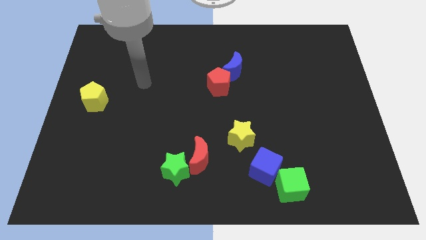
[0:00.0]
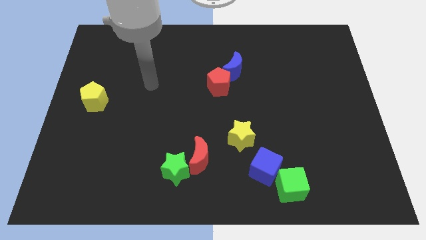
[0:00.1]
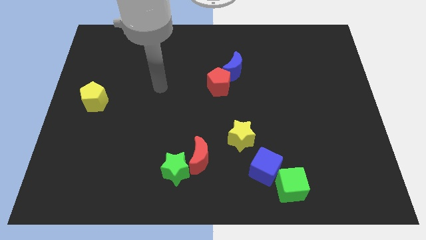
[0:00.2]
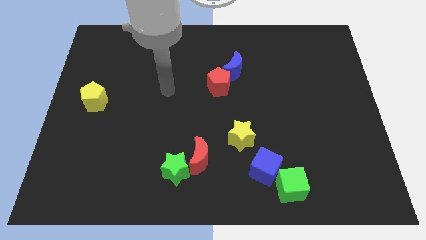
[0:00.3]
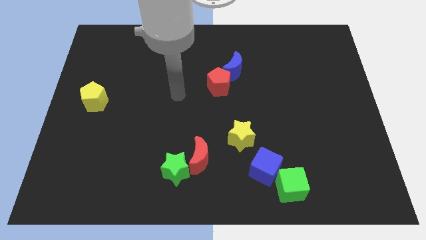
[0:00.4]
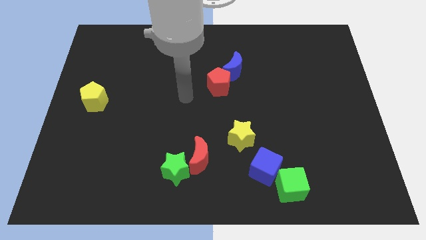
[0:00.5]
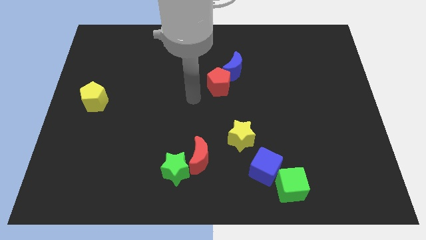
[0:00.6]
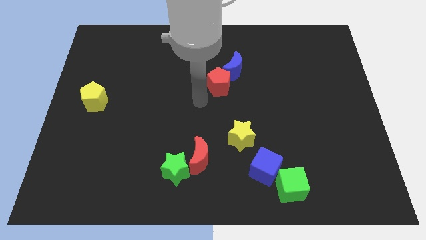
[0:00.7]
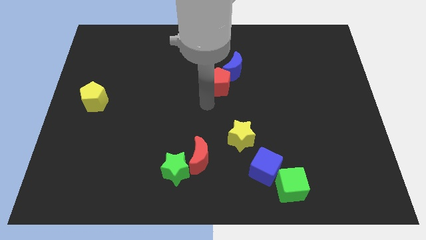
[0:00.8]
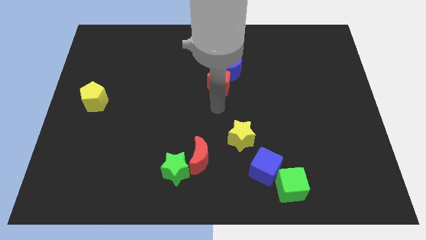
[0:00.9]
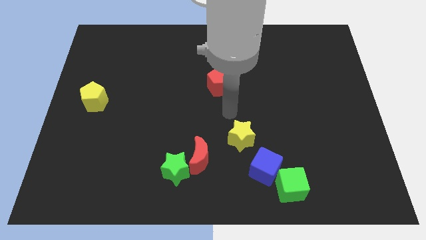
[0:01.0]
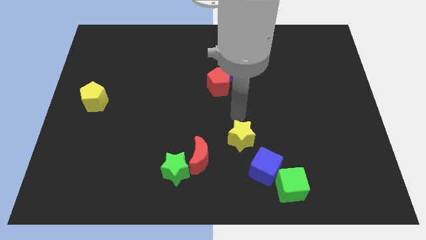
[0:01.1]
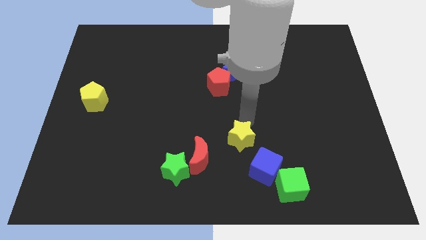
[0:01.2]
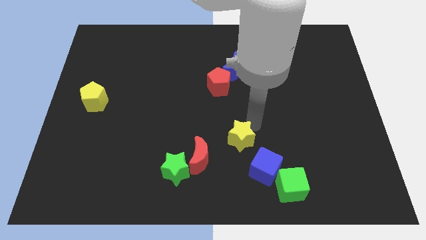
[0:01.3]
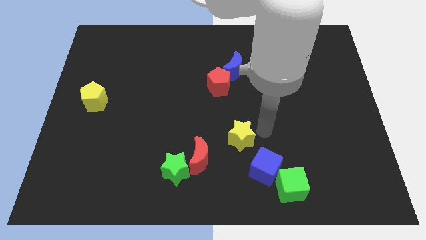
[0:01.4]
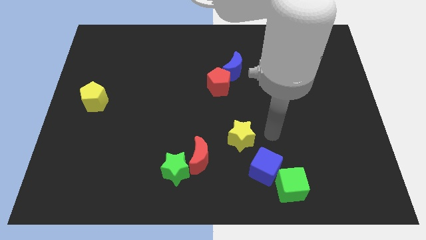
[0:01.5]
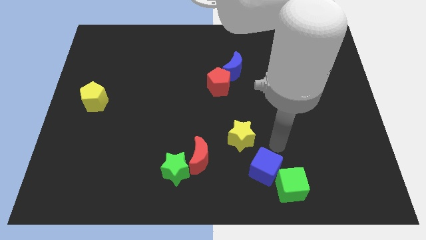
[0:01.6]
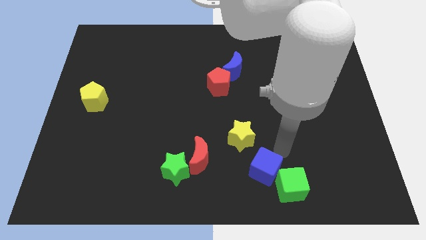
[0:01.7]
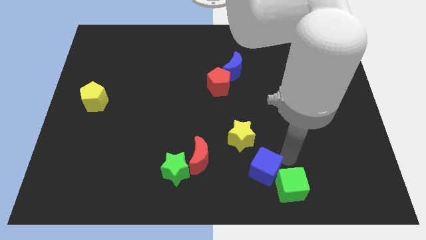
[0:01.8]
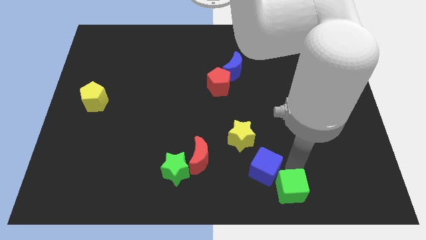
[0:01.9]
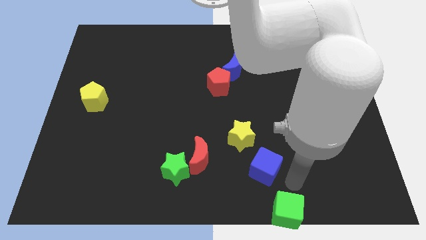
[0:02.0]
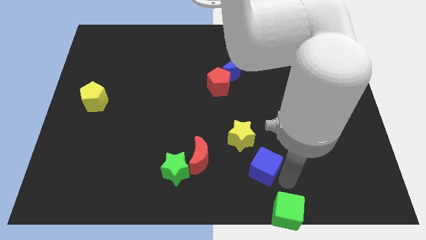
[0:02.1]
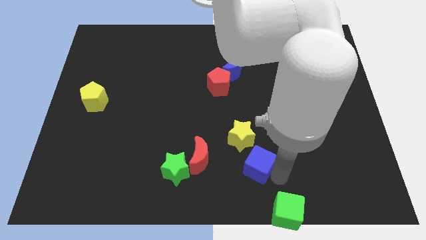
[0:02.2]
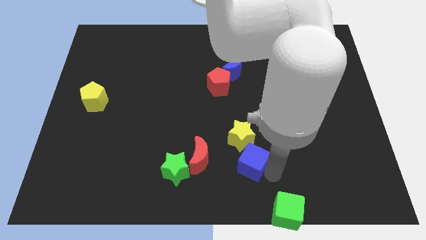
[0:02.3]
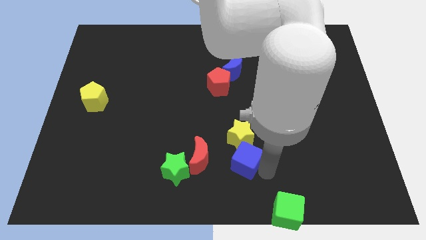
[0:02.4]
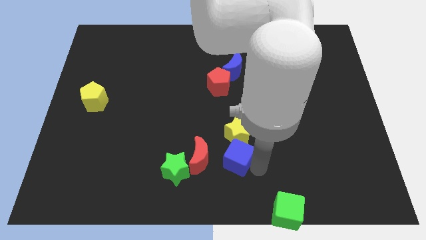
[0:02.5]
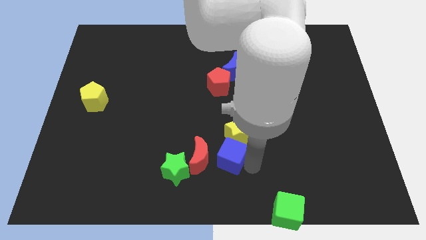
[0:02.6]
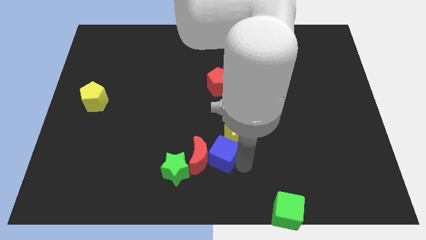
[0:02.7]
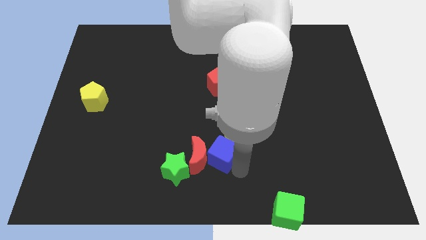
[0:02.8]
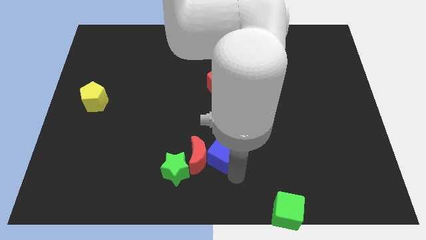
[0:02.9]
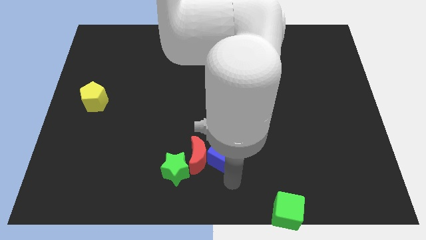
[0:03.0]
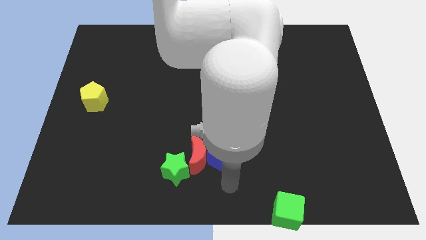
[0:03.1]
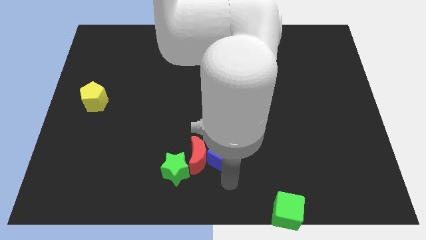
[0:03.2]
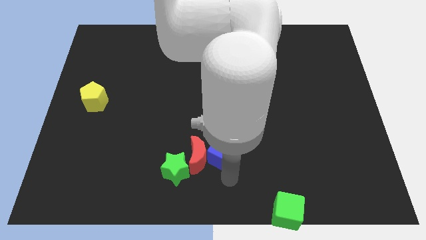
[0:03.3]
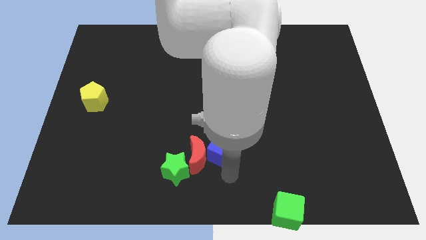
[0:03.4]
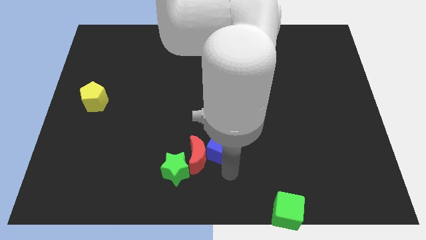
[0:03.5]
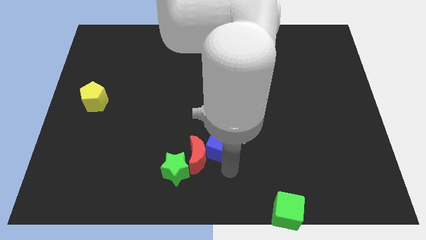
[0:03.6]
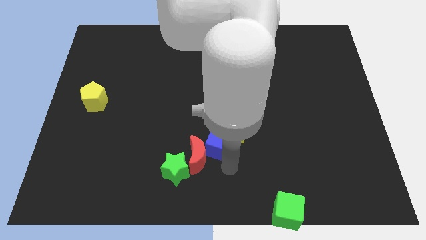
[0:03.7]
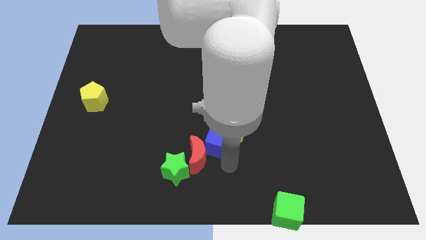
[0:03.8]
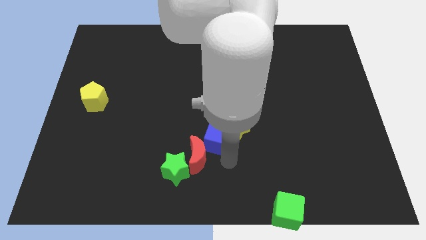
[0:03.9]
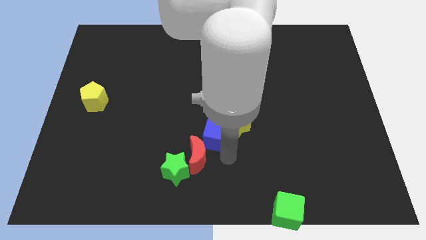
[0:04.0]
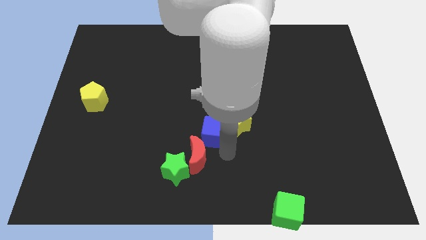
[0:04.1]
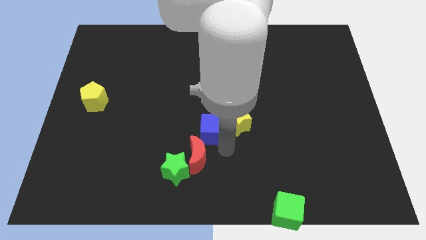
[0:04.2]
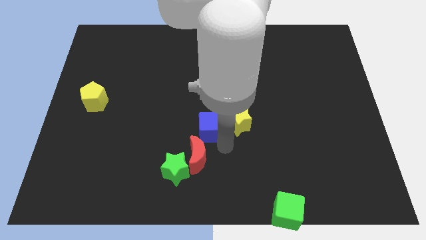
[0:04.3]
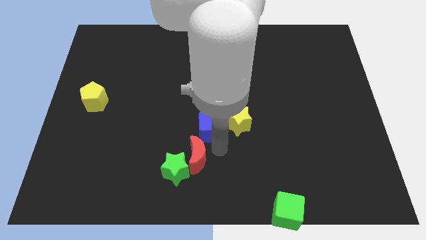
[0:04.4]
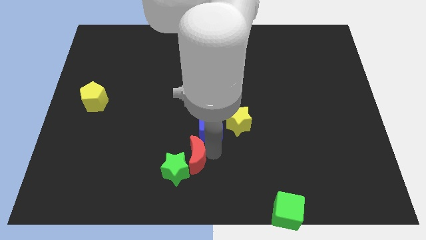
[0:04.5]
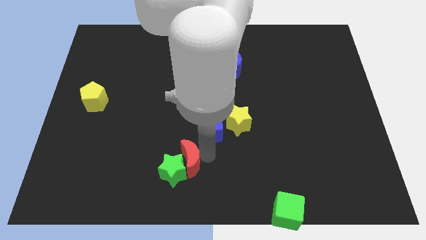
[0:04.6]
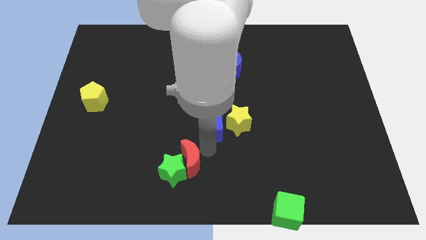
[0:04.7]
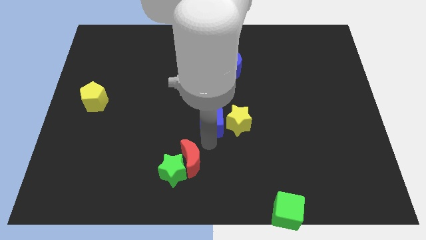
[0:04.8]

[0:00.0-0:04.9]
slide the blue cube to the top left of the yellow star

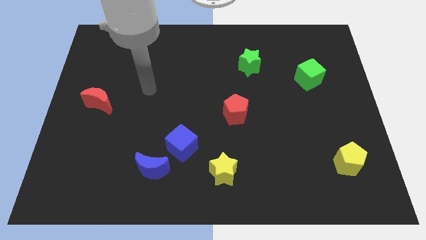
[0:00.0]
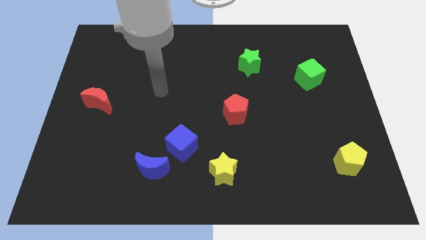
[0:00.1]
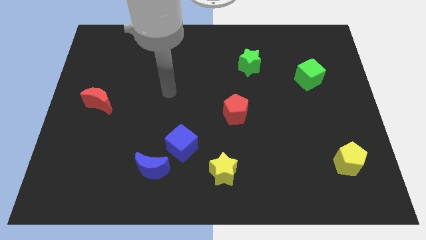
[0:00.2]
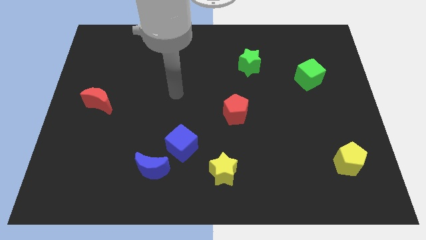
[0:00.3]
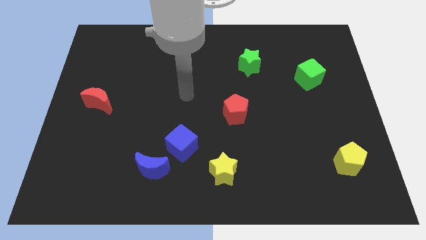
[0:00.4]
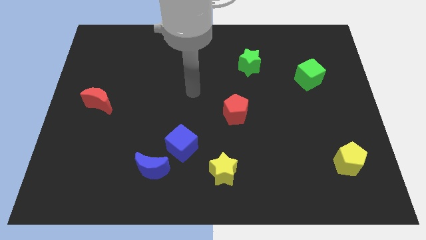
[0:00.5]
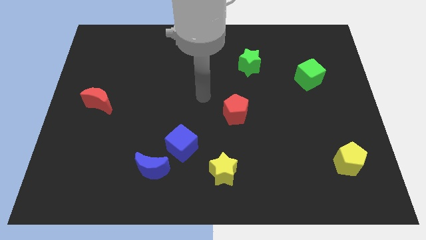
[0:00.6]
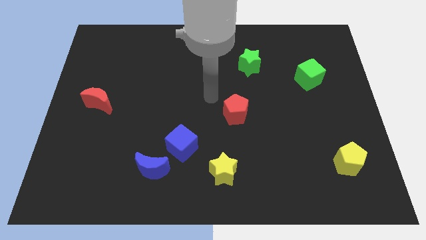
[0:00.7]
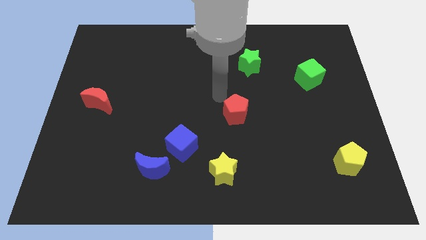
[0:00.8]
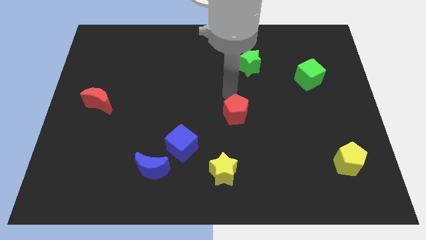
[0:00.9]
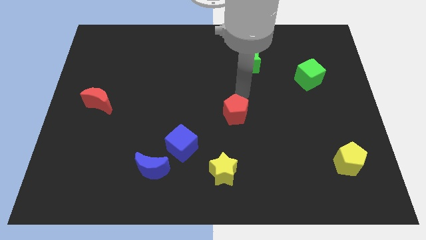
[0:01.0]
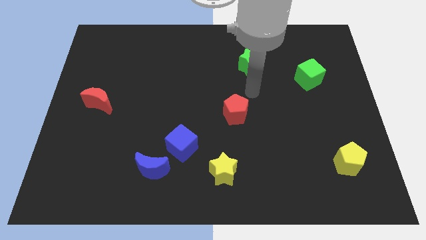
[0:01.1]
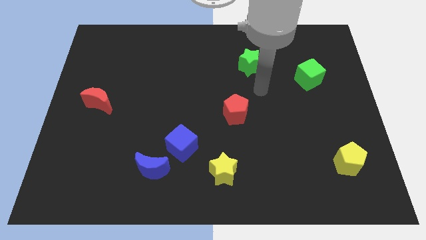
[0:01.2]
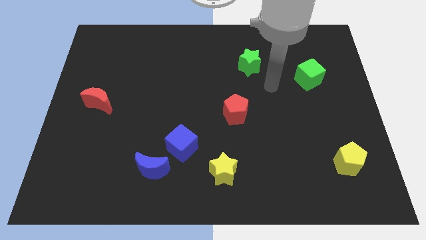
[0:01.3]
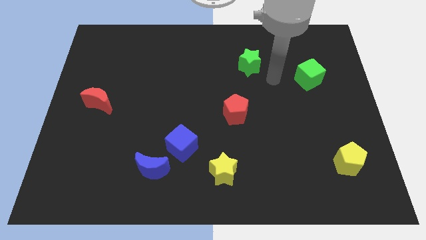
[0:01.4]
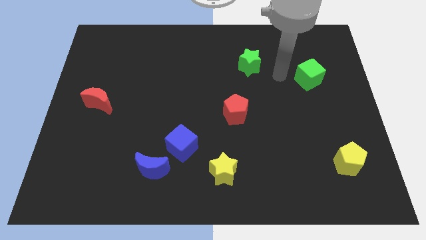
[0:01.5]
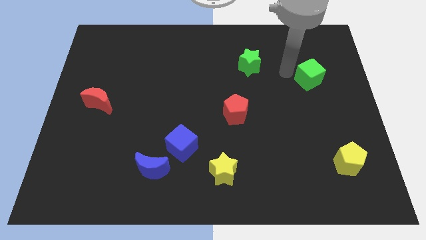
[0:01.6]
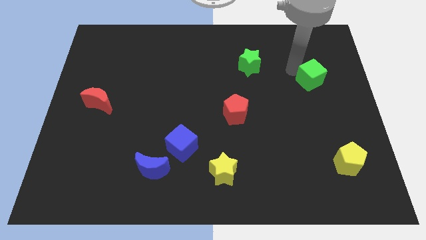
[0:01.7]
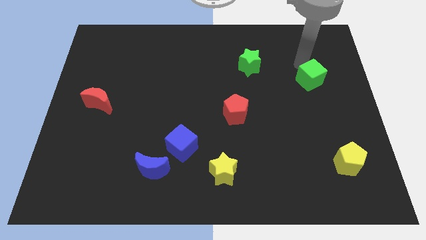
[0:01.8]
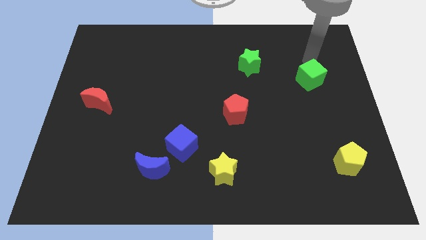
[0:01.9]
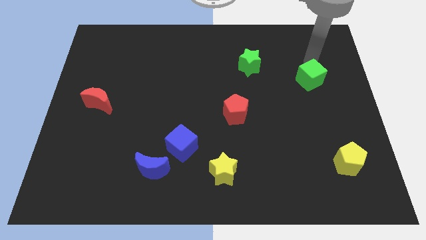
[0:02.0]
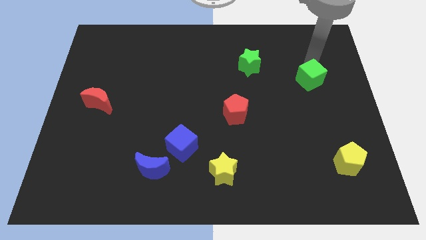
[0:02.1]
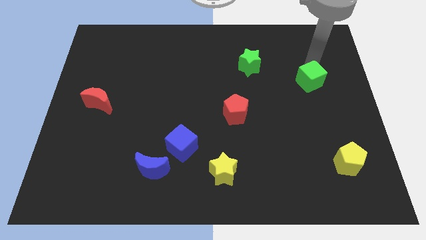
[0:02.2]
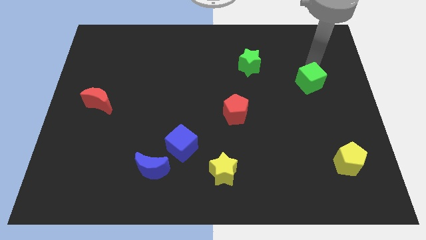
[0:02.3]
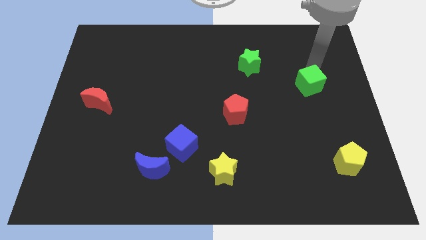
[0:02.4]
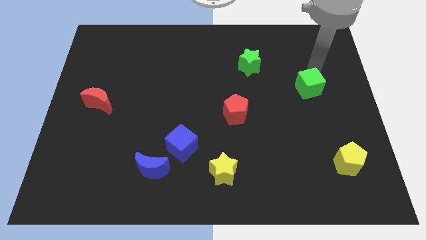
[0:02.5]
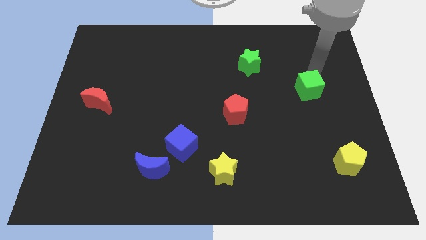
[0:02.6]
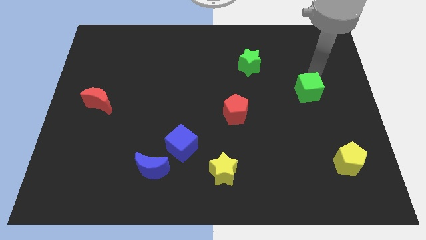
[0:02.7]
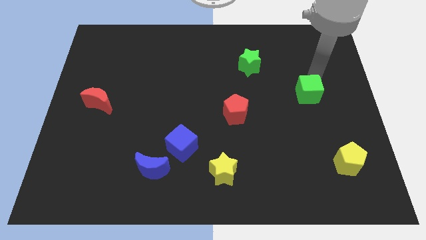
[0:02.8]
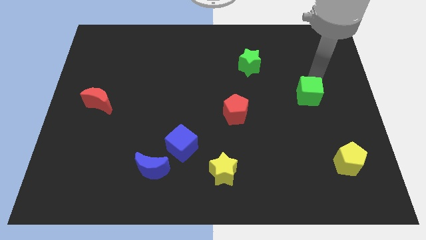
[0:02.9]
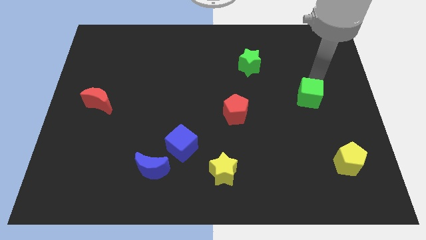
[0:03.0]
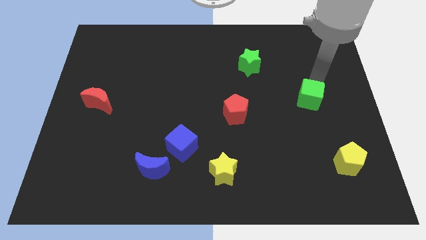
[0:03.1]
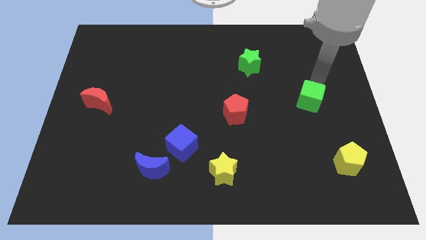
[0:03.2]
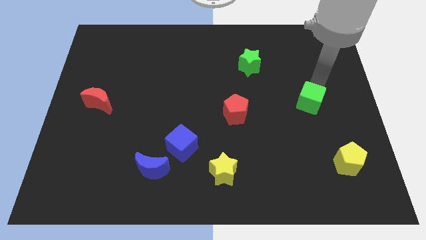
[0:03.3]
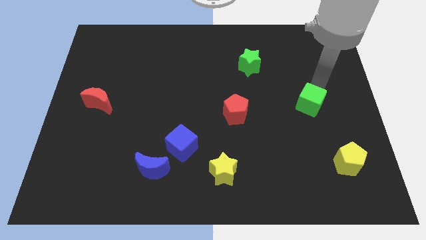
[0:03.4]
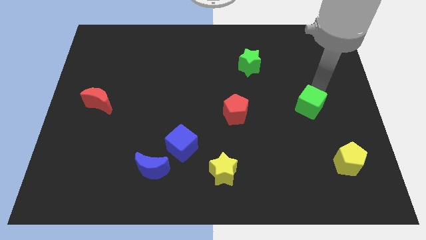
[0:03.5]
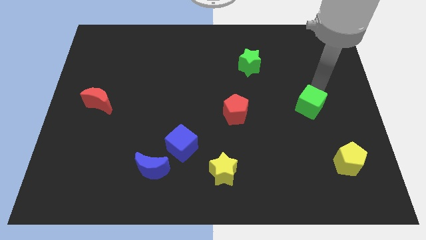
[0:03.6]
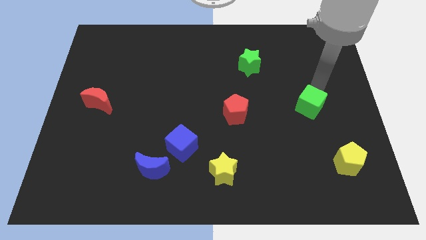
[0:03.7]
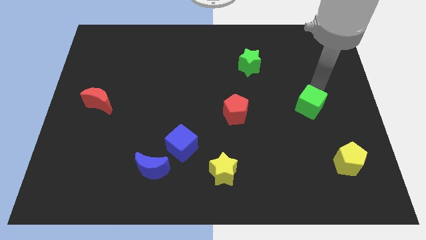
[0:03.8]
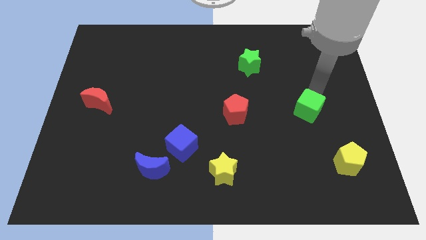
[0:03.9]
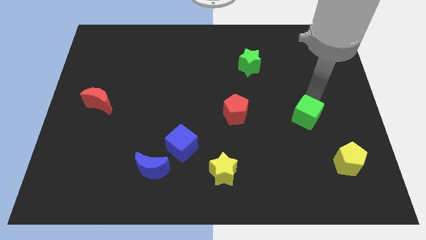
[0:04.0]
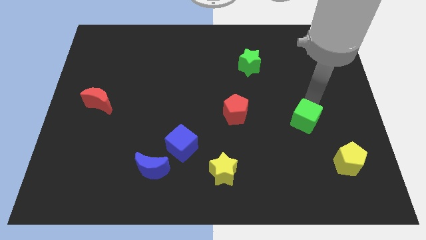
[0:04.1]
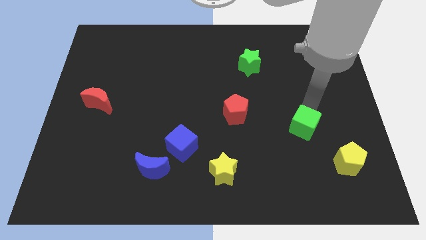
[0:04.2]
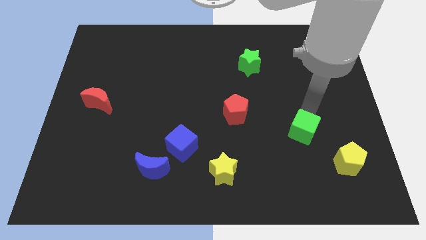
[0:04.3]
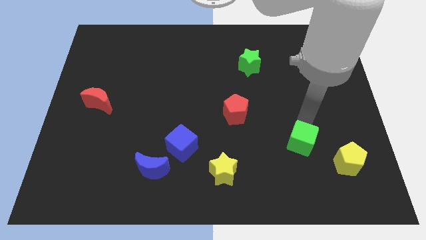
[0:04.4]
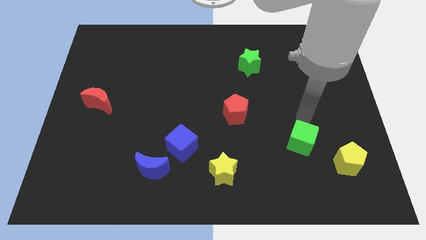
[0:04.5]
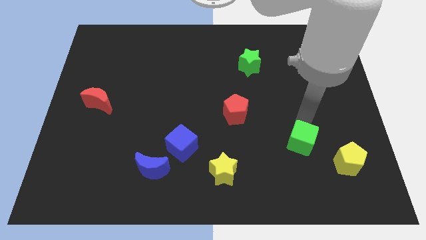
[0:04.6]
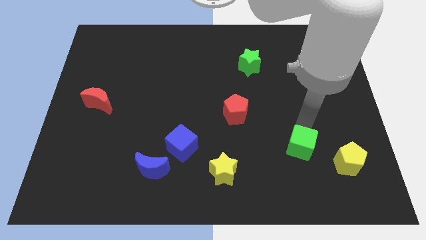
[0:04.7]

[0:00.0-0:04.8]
move the green cube to the left side of the yellow pentagon
